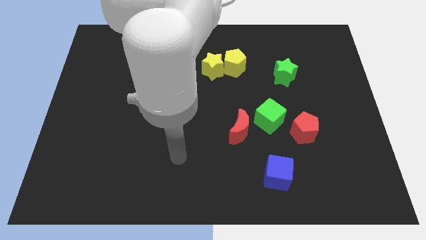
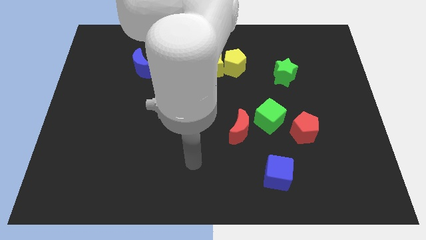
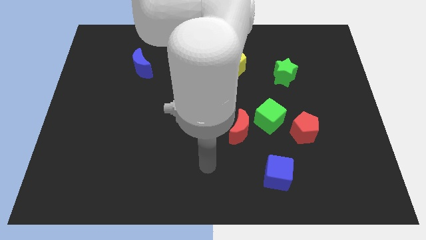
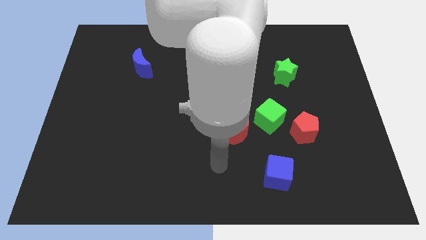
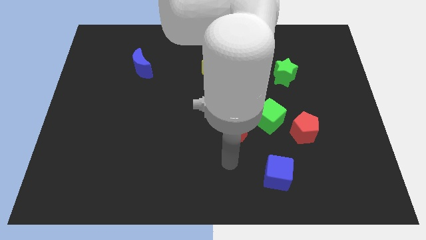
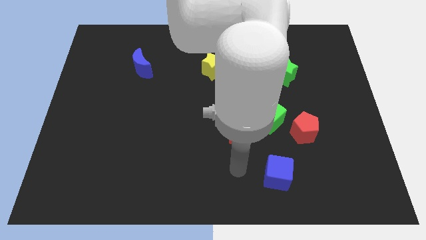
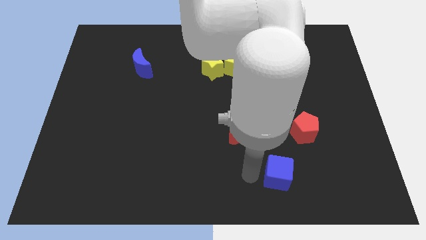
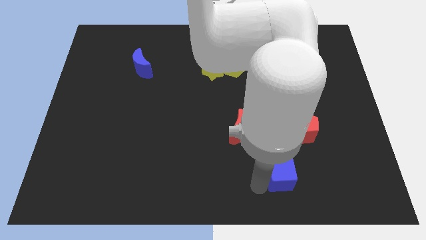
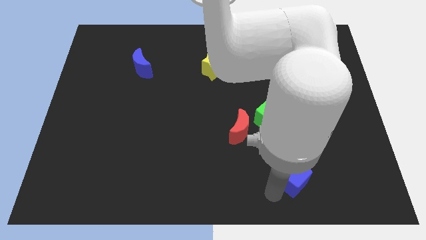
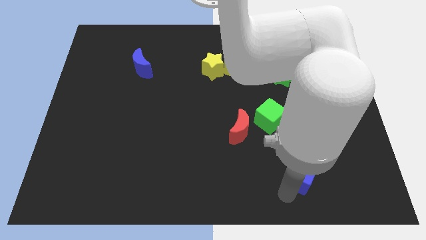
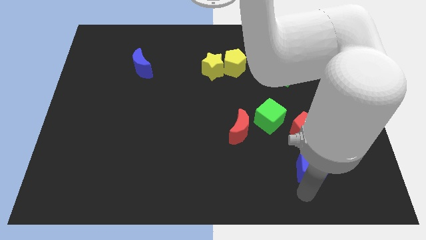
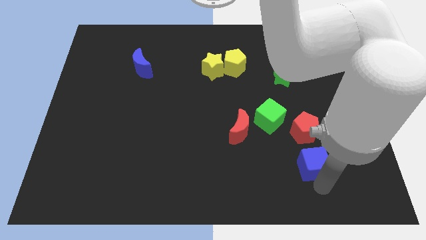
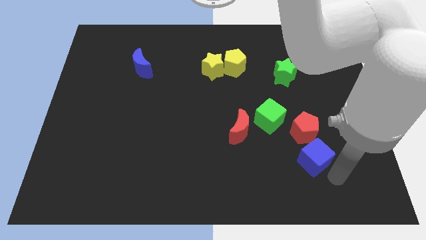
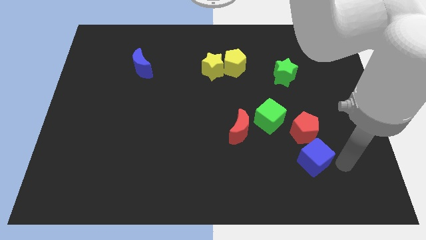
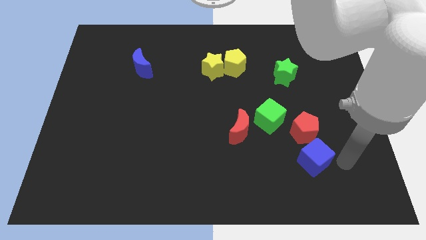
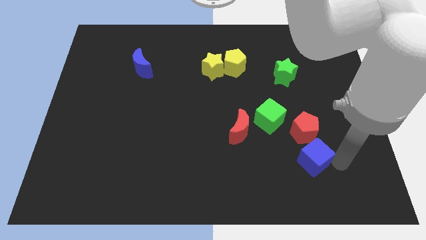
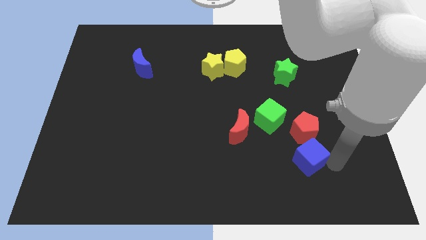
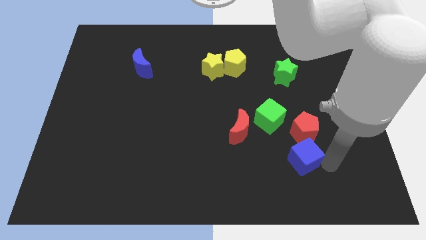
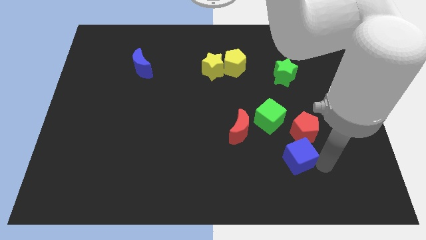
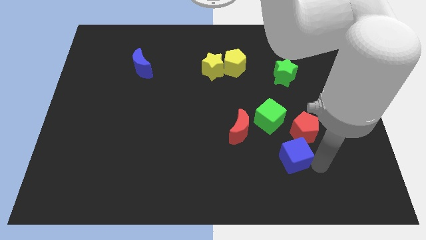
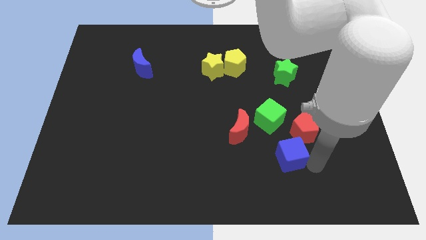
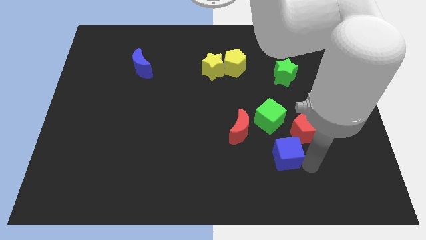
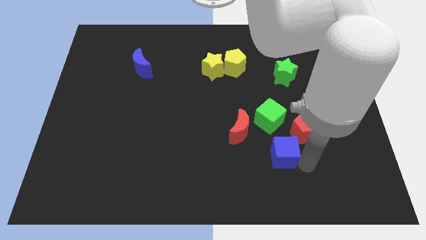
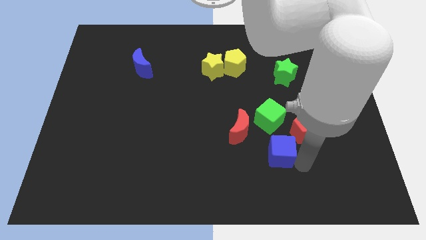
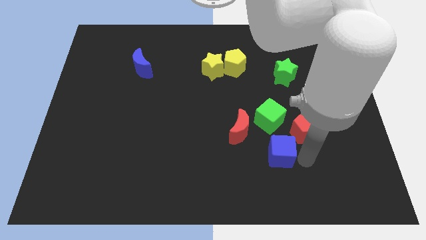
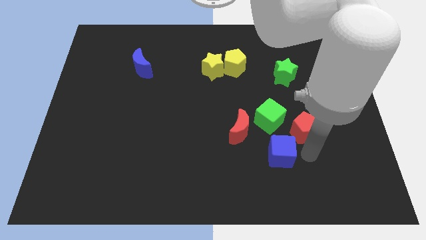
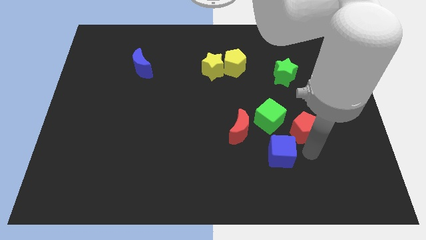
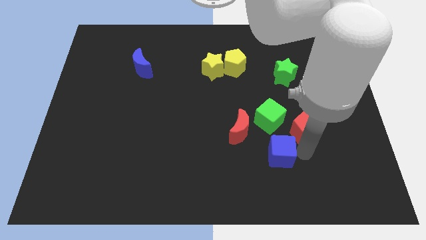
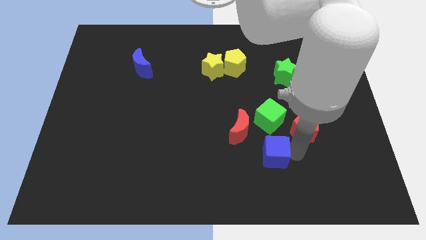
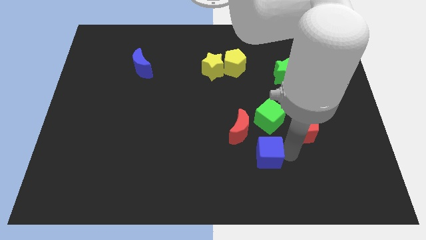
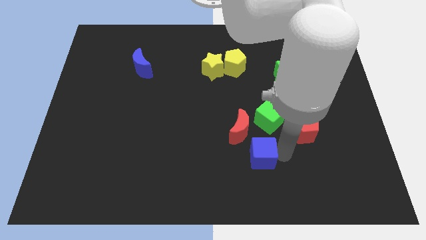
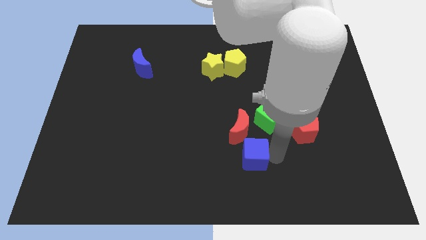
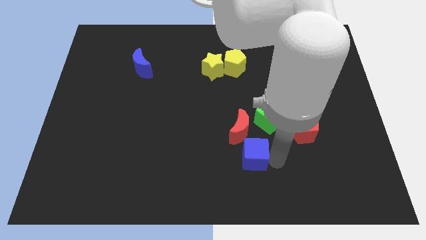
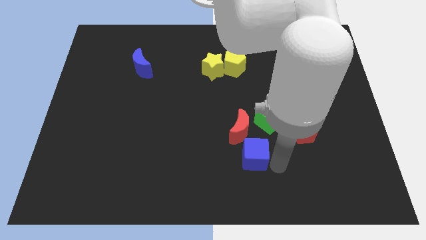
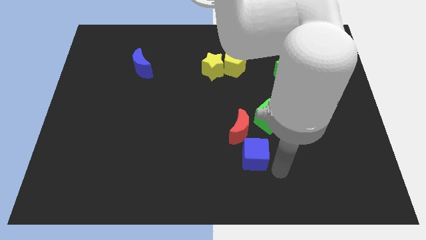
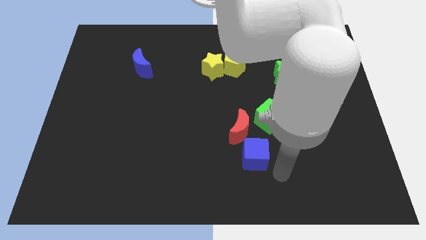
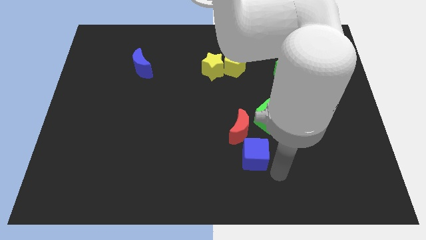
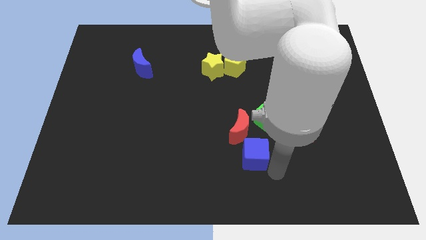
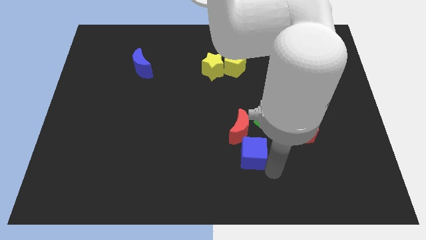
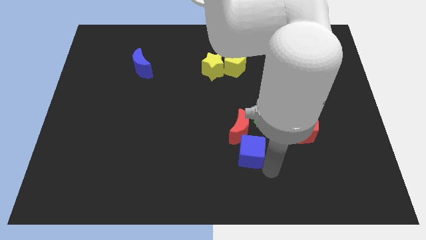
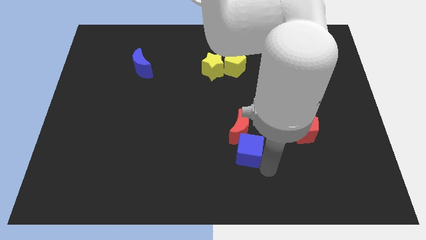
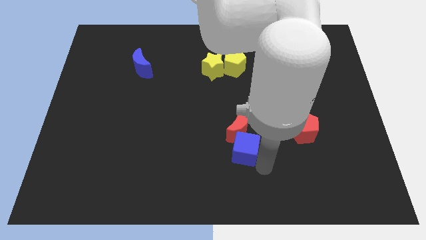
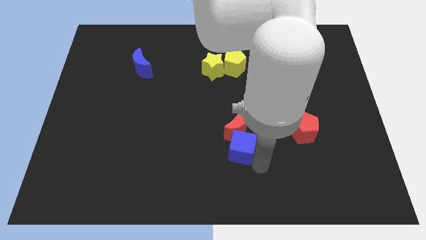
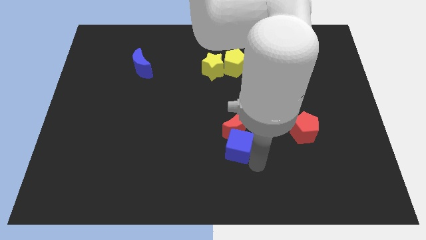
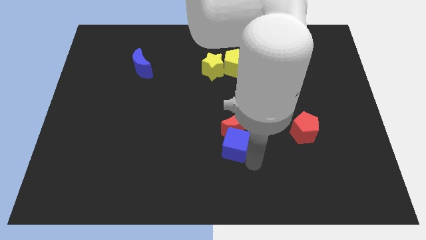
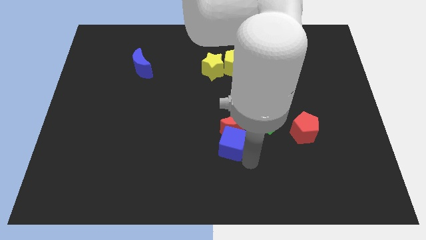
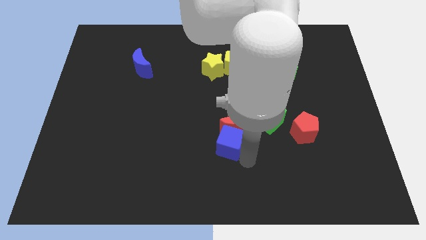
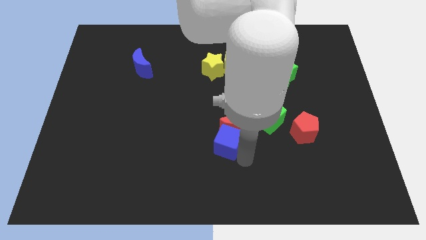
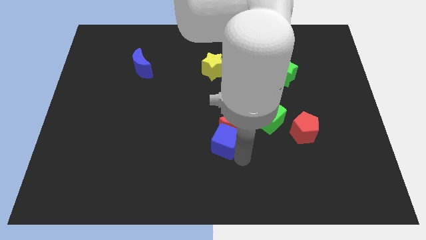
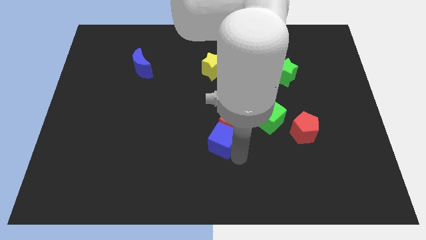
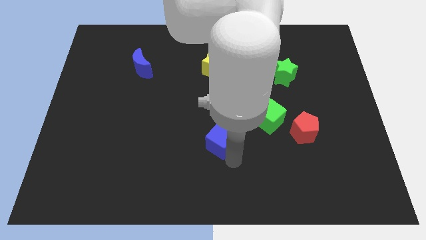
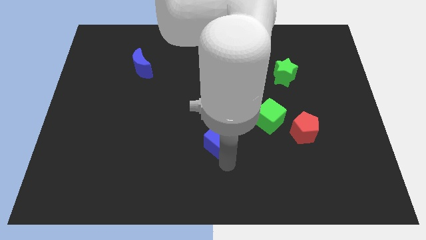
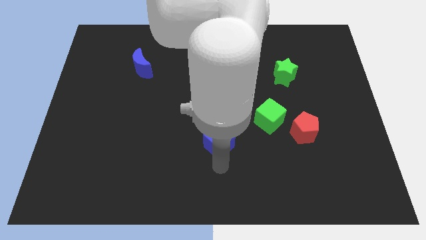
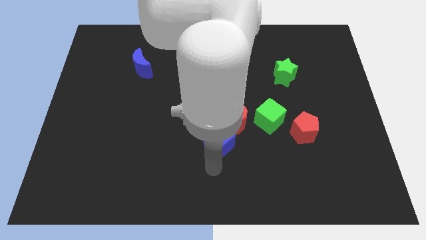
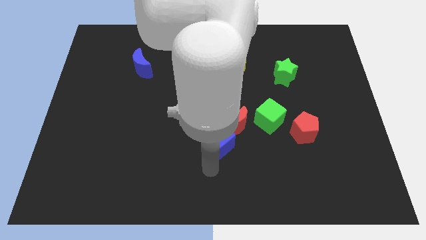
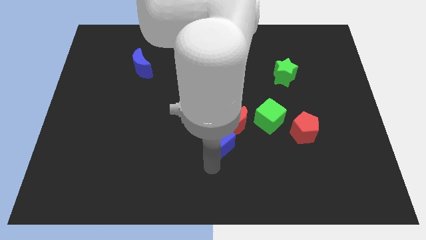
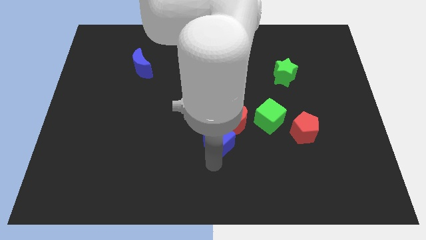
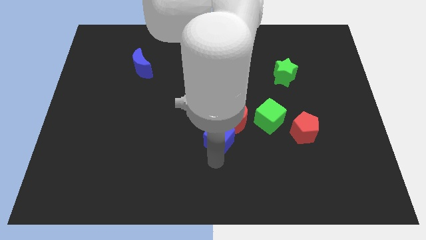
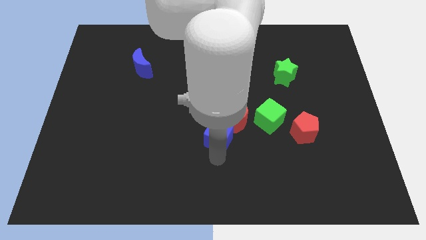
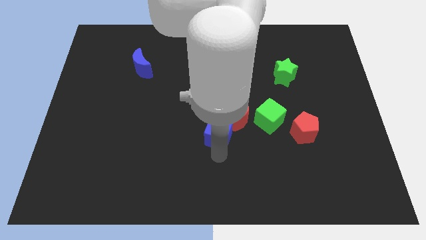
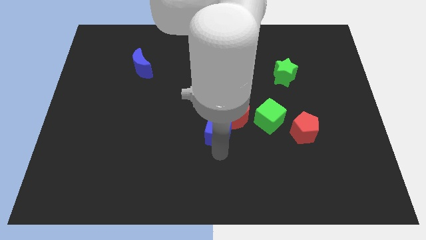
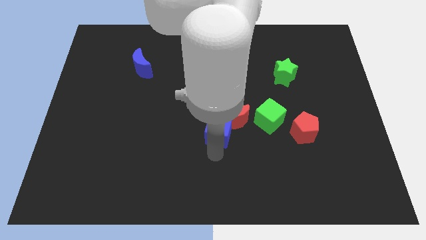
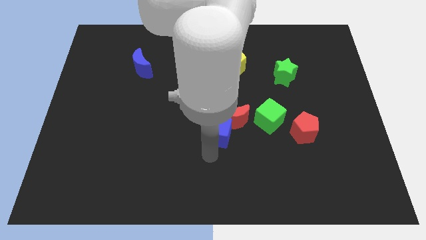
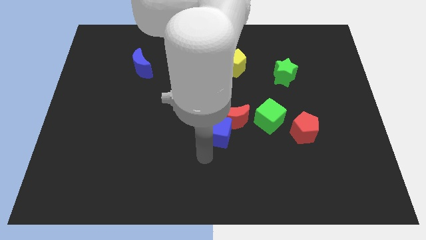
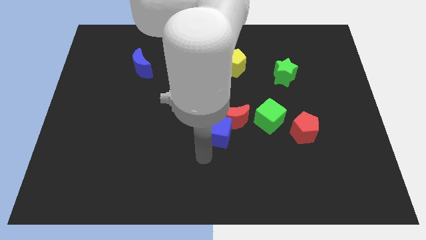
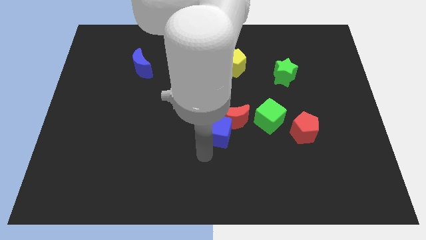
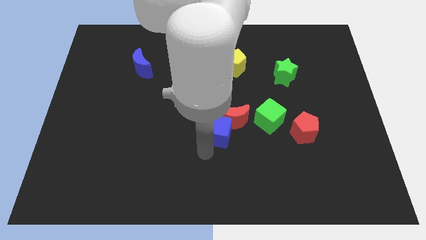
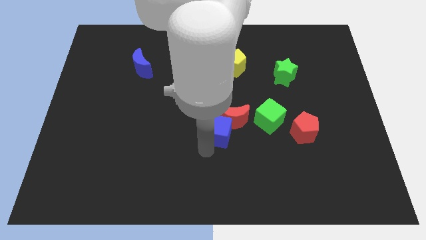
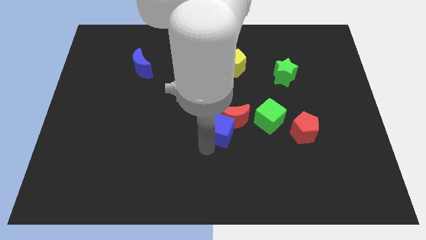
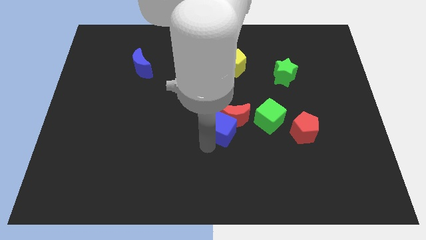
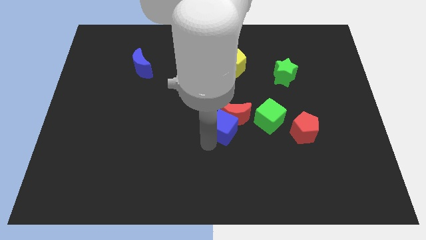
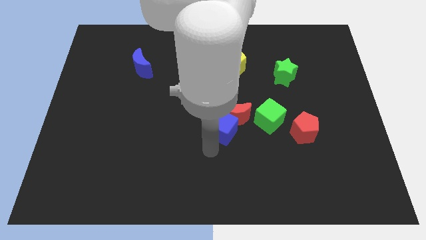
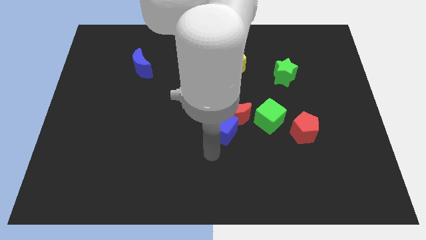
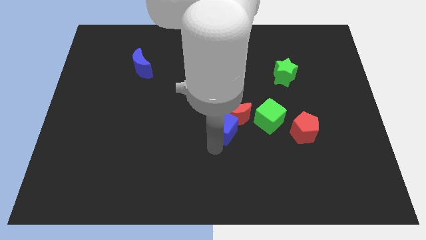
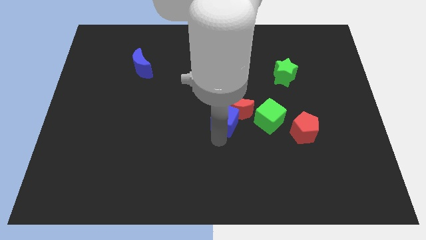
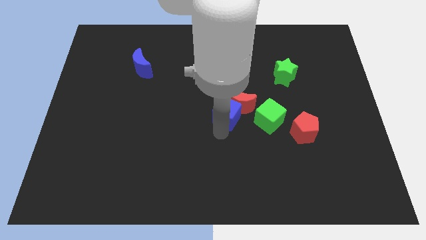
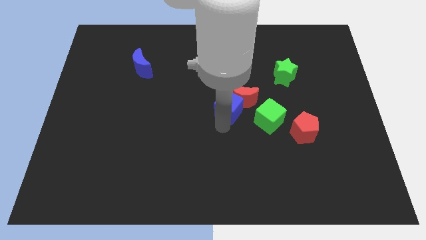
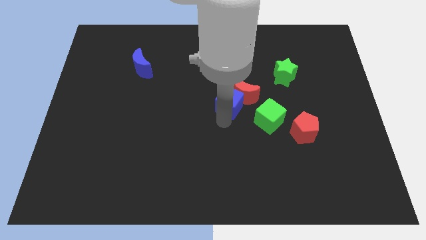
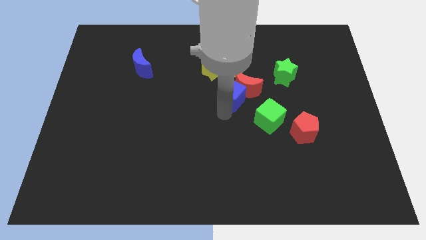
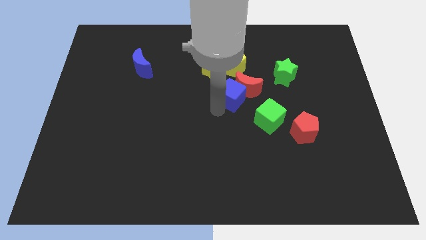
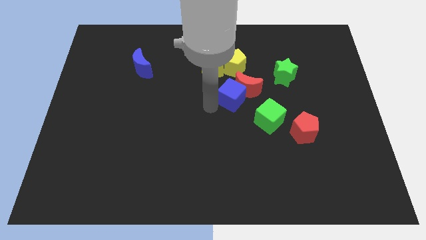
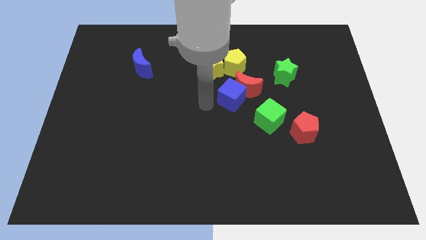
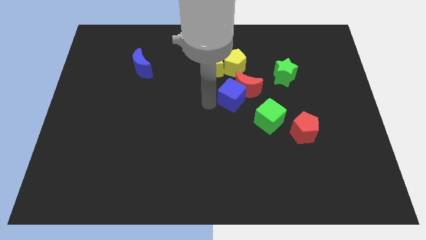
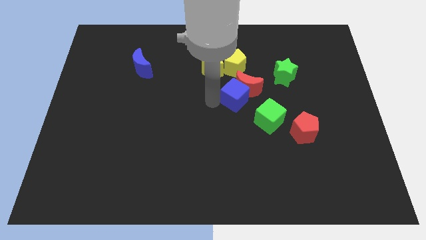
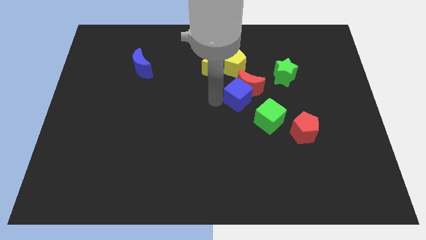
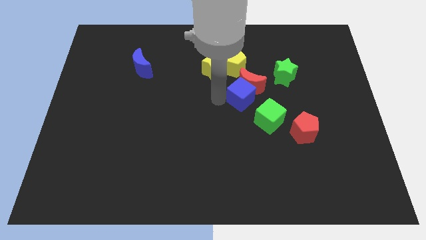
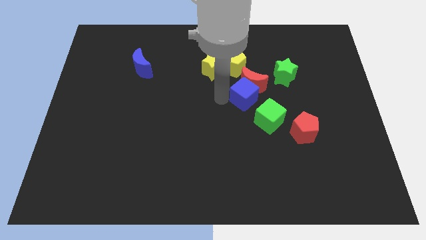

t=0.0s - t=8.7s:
push the blue cube diagonally down and to the left of the green star
